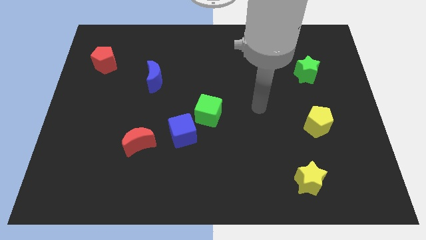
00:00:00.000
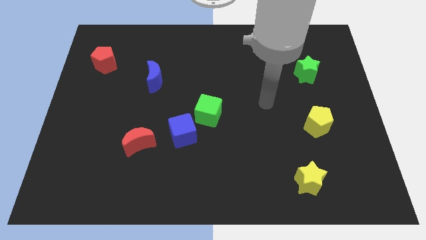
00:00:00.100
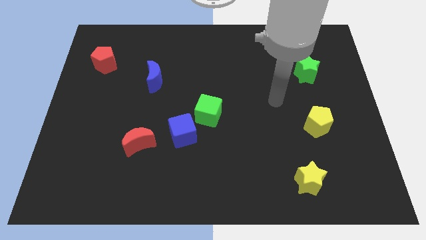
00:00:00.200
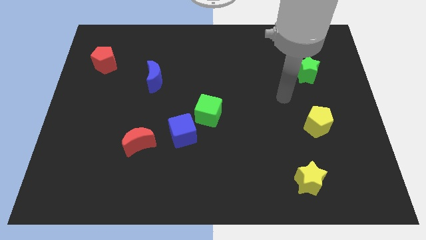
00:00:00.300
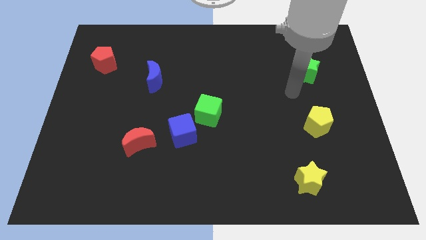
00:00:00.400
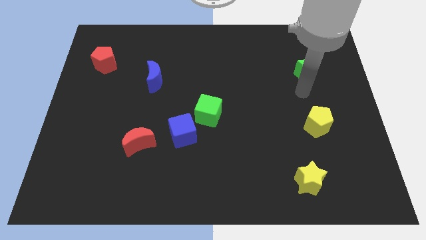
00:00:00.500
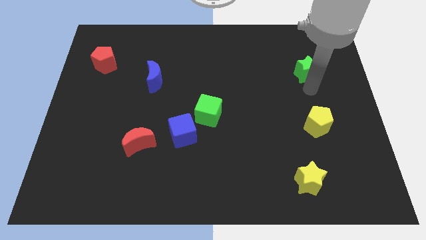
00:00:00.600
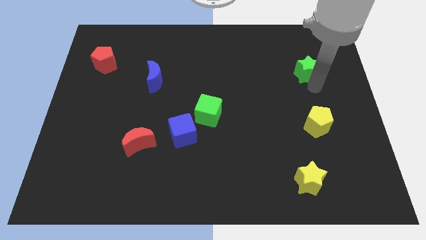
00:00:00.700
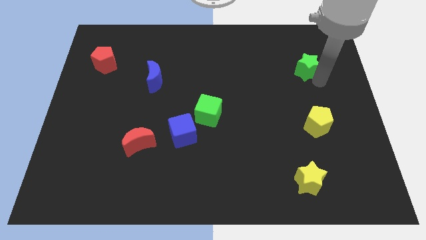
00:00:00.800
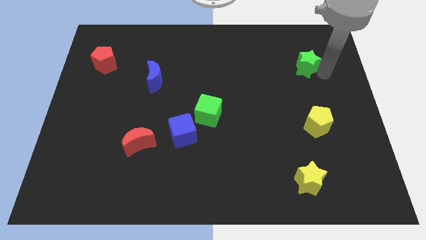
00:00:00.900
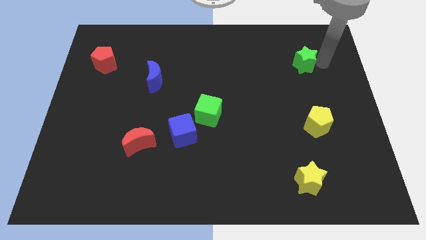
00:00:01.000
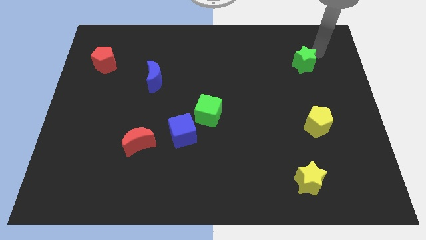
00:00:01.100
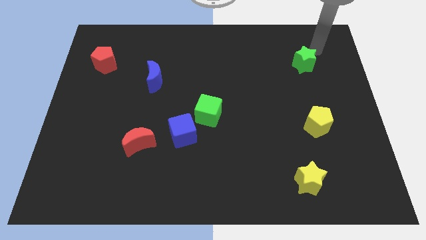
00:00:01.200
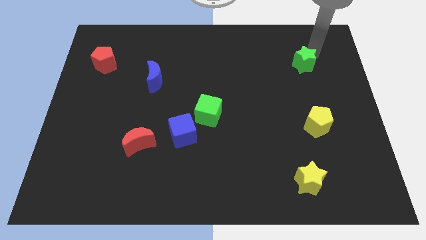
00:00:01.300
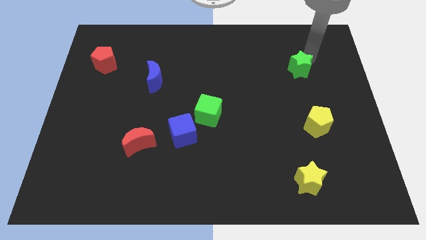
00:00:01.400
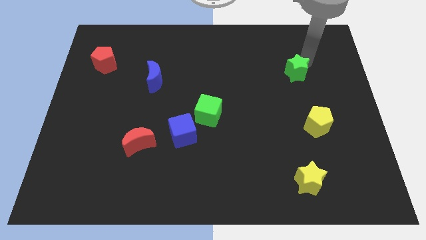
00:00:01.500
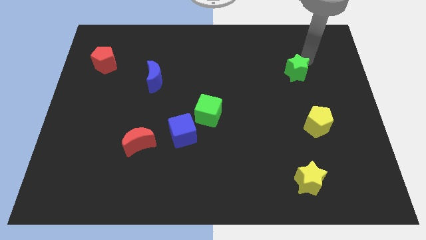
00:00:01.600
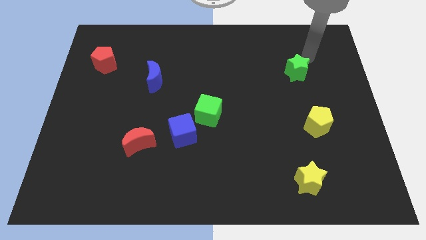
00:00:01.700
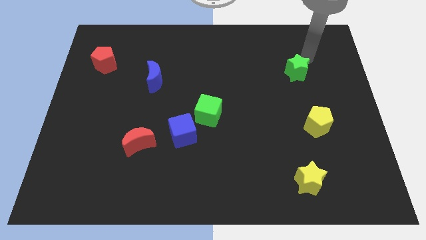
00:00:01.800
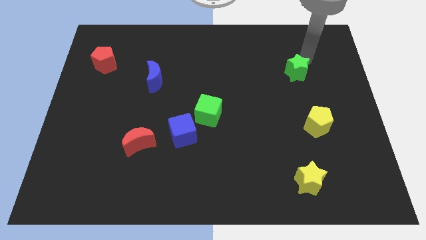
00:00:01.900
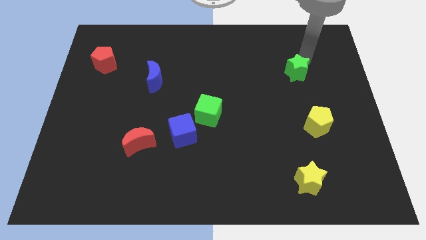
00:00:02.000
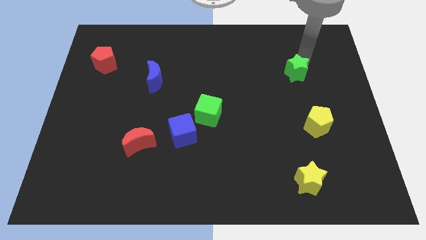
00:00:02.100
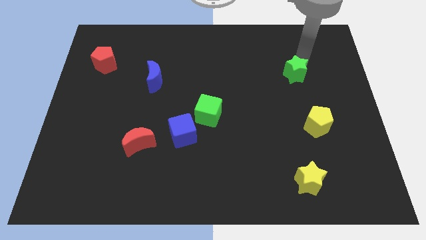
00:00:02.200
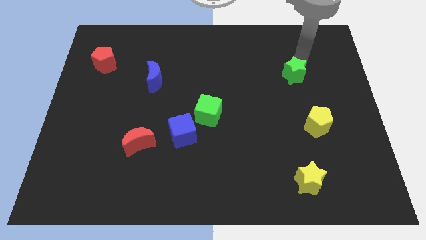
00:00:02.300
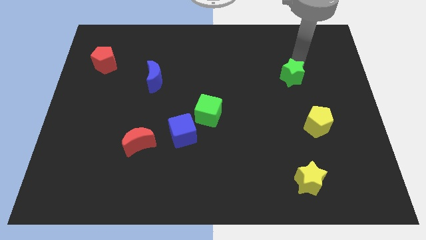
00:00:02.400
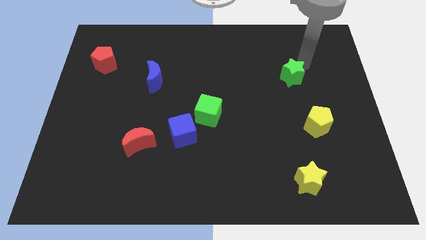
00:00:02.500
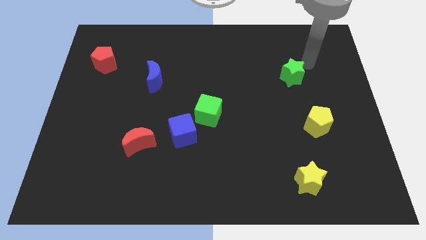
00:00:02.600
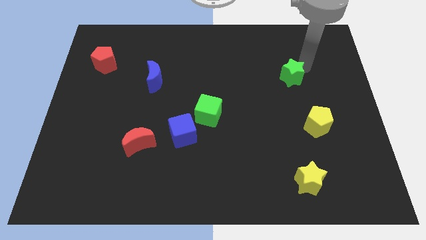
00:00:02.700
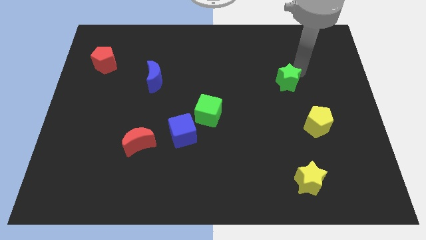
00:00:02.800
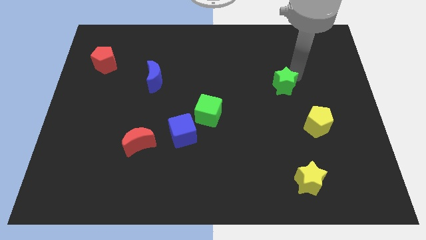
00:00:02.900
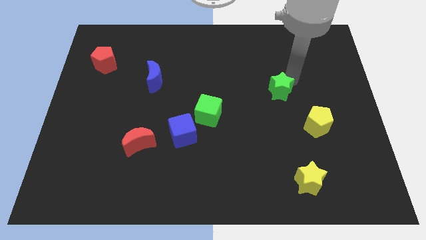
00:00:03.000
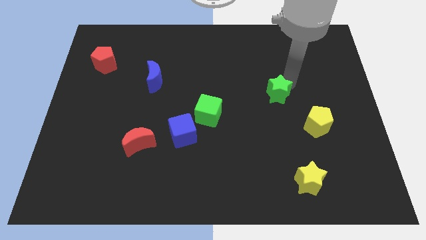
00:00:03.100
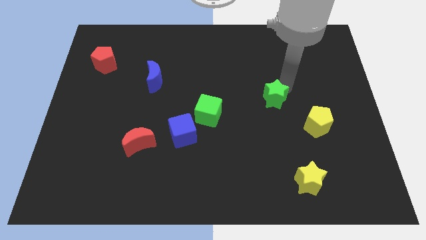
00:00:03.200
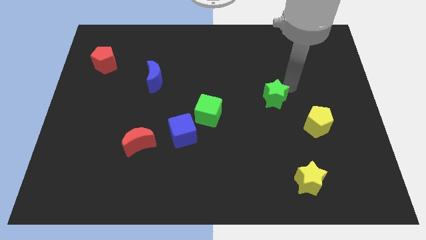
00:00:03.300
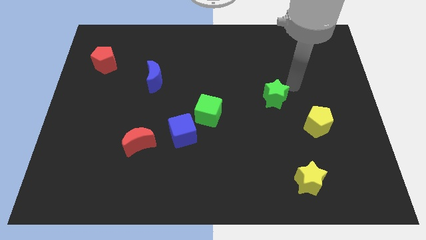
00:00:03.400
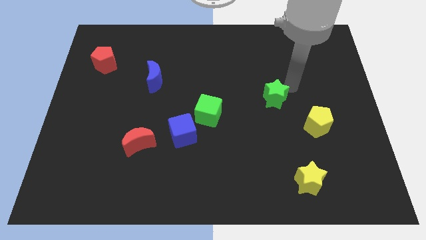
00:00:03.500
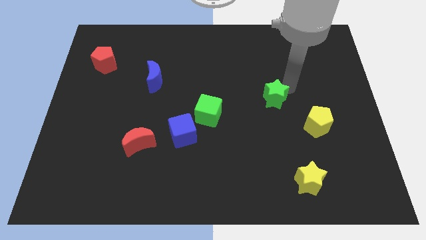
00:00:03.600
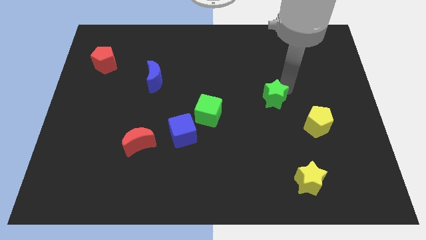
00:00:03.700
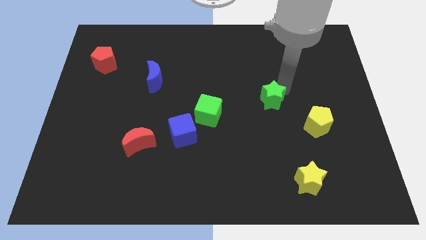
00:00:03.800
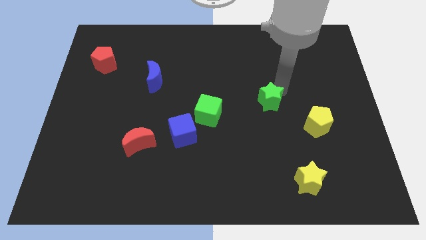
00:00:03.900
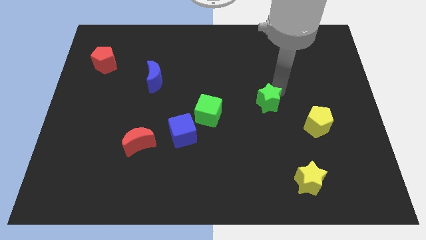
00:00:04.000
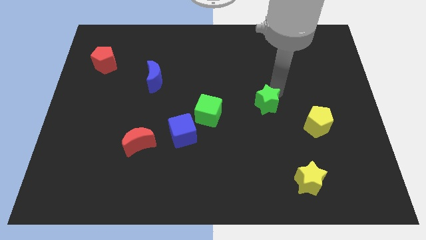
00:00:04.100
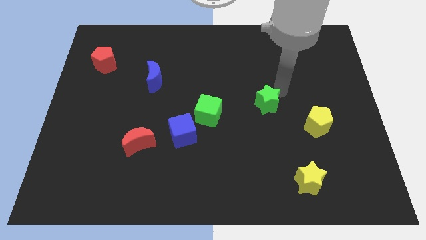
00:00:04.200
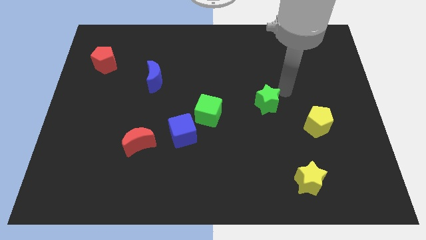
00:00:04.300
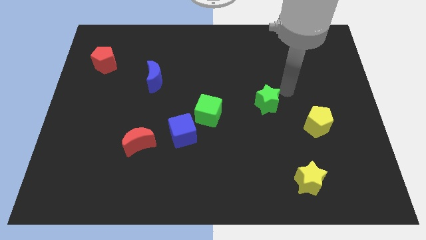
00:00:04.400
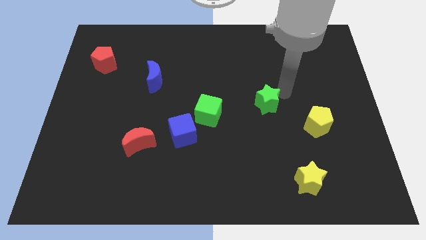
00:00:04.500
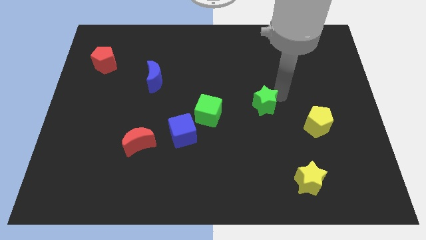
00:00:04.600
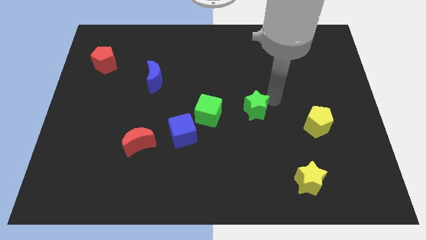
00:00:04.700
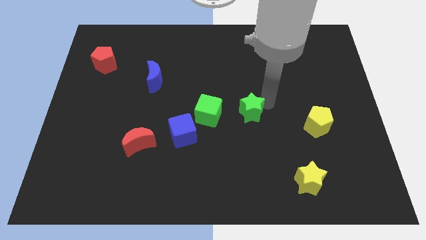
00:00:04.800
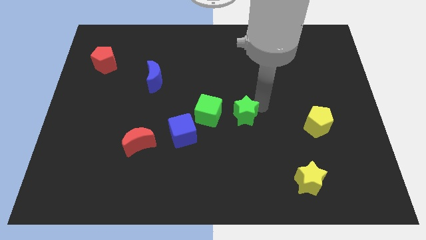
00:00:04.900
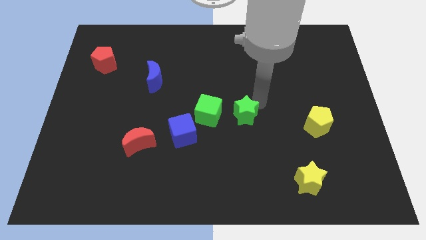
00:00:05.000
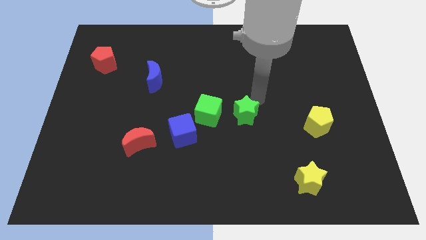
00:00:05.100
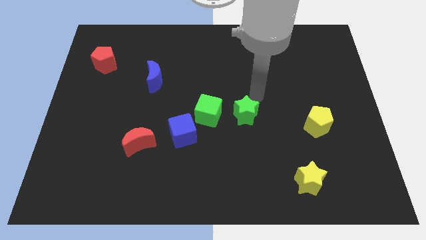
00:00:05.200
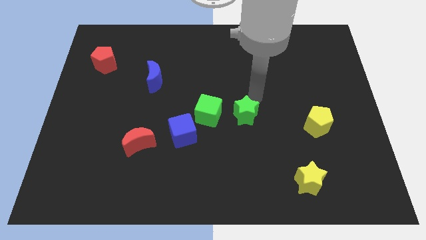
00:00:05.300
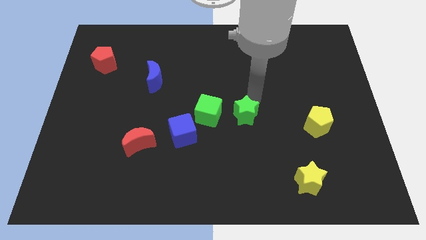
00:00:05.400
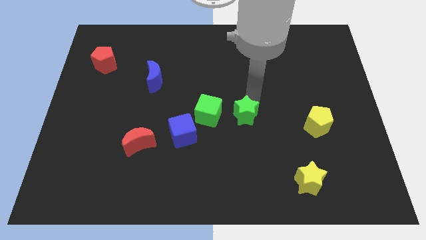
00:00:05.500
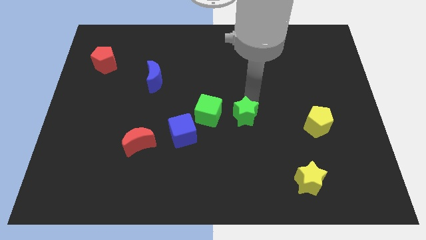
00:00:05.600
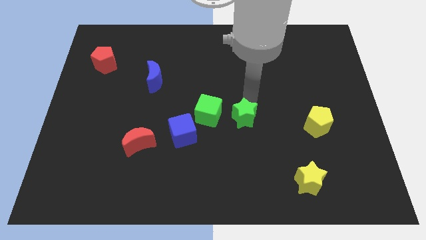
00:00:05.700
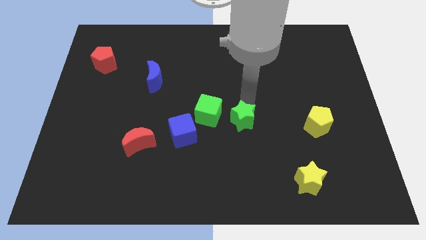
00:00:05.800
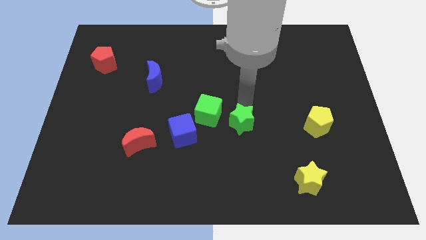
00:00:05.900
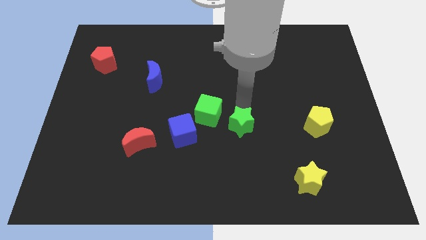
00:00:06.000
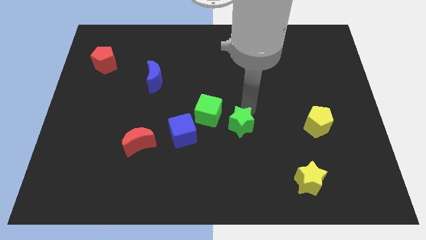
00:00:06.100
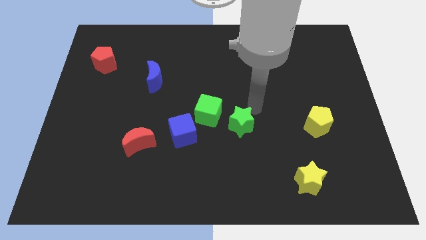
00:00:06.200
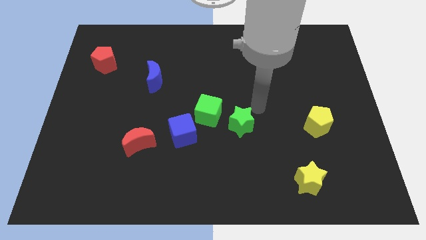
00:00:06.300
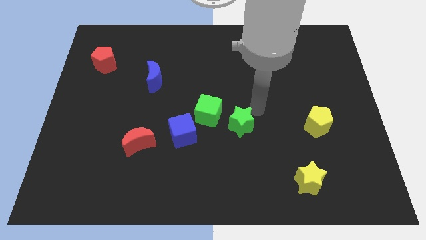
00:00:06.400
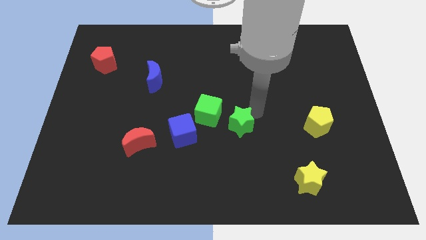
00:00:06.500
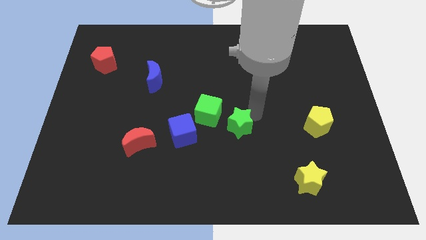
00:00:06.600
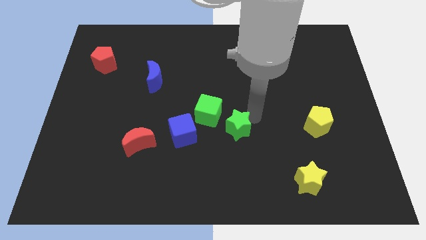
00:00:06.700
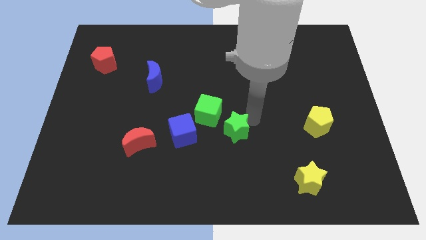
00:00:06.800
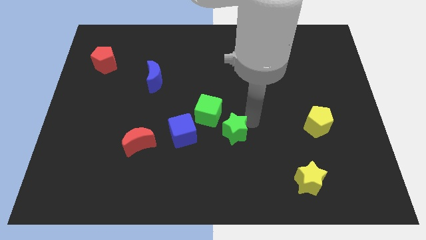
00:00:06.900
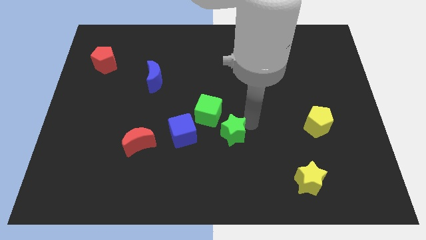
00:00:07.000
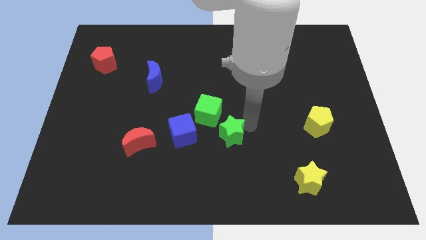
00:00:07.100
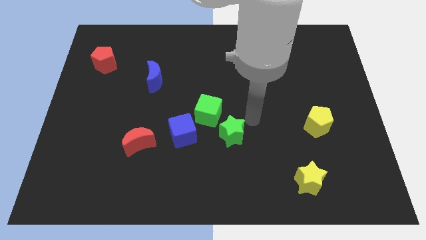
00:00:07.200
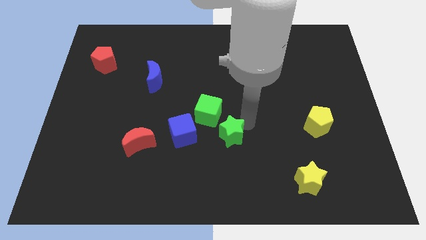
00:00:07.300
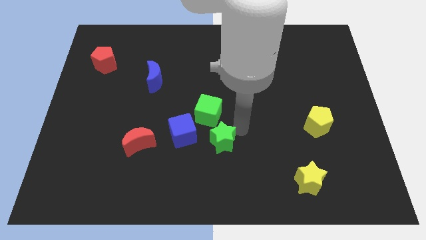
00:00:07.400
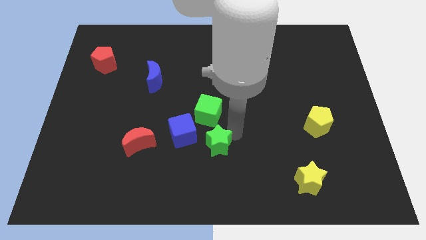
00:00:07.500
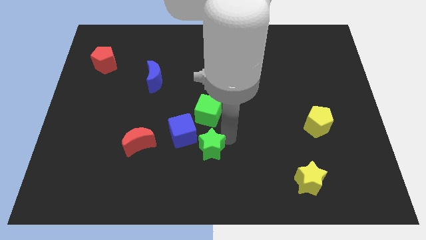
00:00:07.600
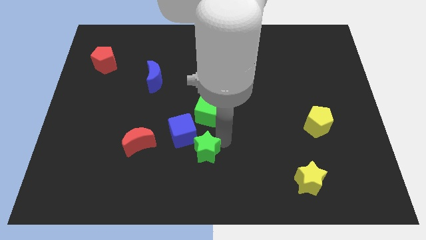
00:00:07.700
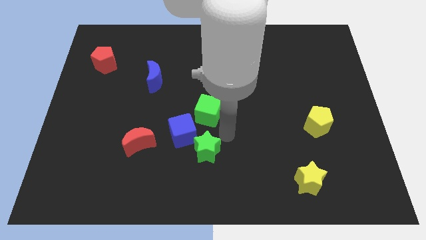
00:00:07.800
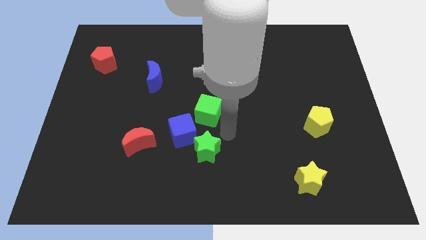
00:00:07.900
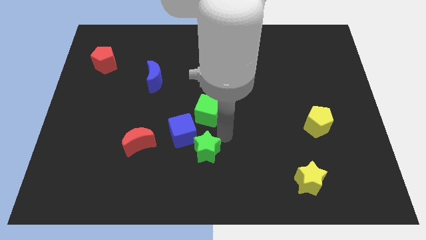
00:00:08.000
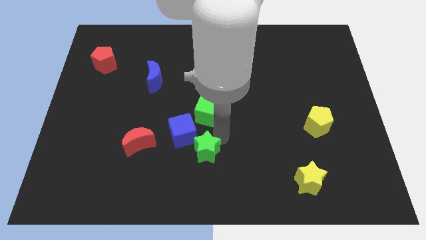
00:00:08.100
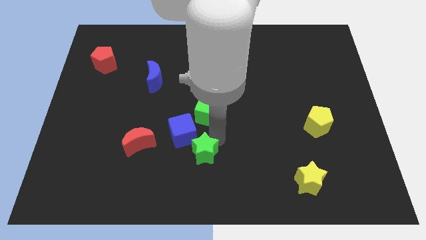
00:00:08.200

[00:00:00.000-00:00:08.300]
slide the green star to the bottom of the blue cube
